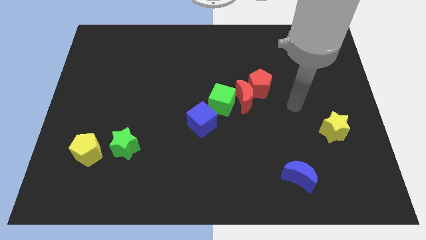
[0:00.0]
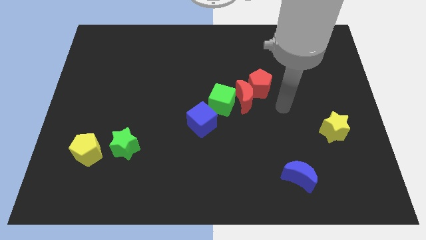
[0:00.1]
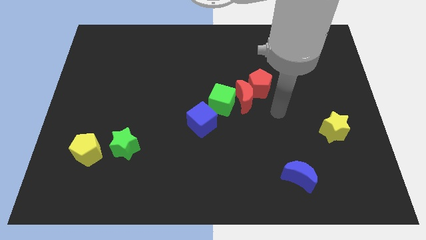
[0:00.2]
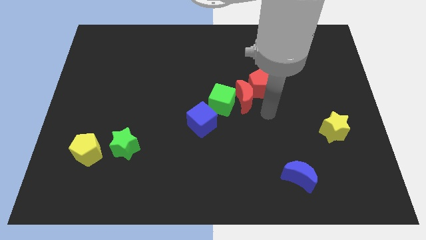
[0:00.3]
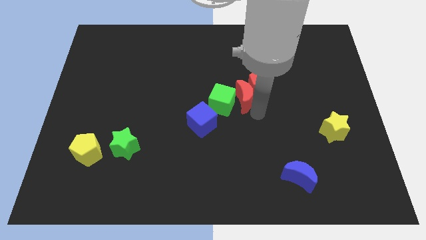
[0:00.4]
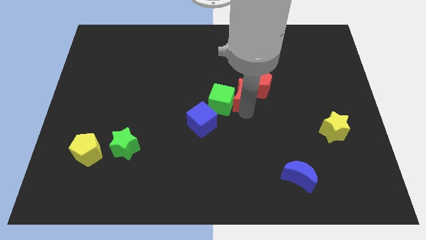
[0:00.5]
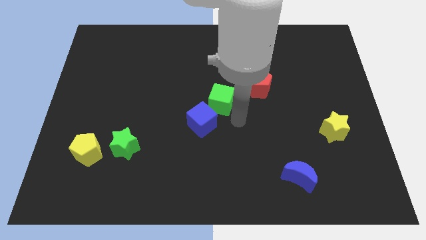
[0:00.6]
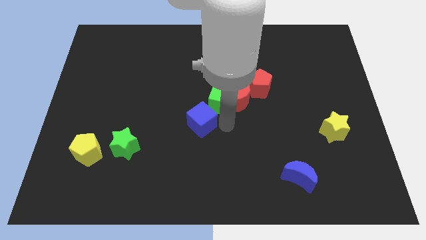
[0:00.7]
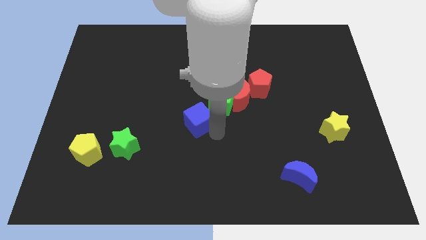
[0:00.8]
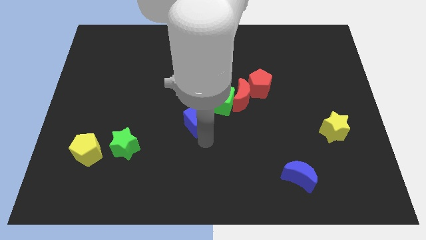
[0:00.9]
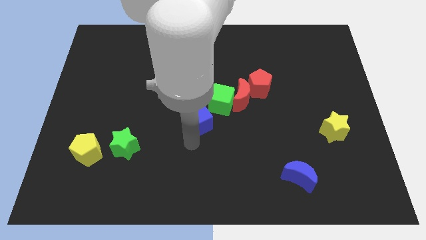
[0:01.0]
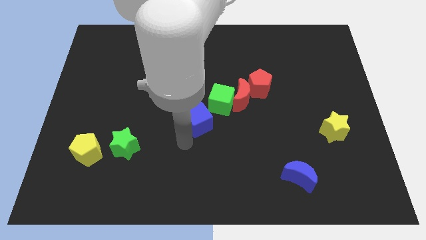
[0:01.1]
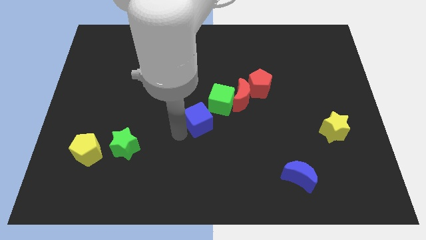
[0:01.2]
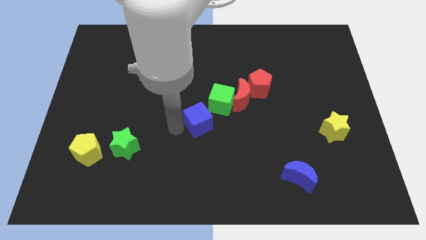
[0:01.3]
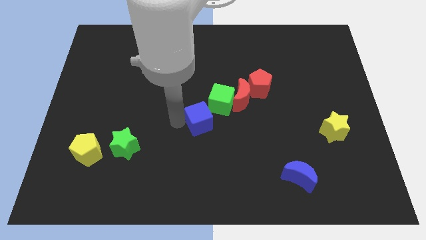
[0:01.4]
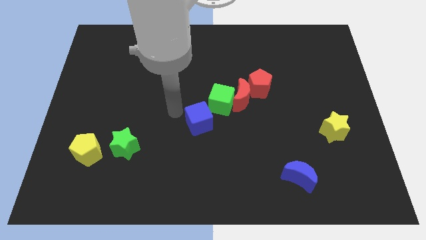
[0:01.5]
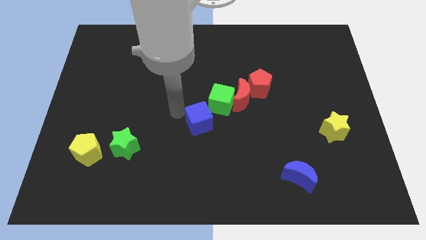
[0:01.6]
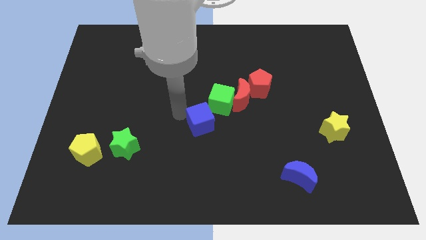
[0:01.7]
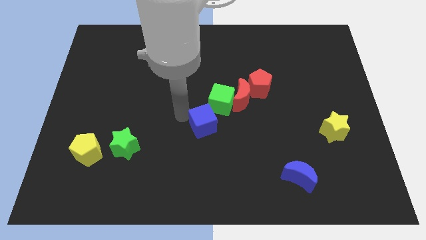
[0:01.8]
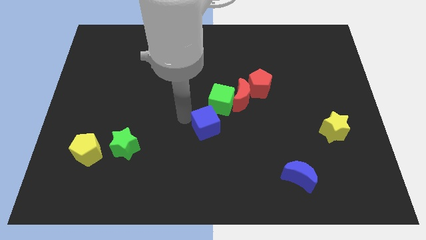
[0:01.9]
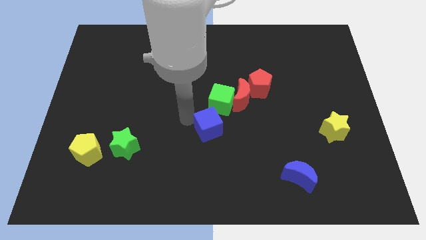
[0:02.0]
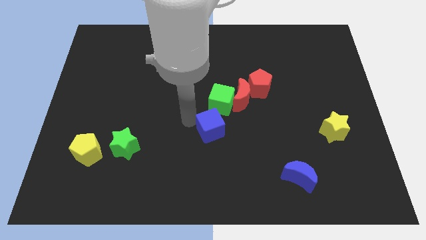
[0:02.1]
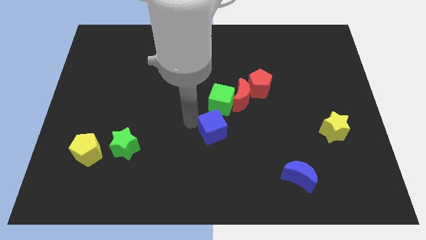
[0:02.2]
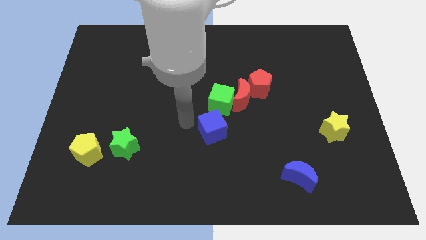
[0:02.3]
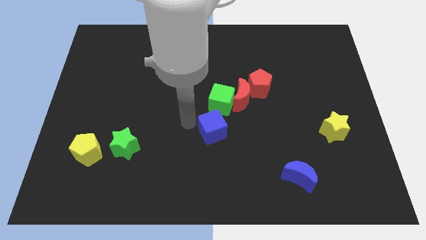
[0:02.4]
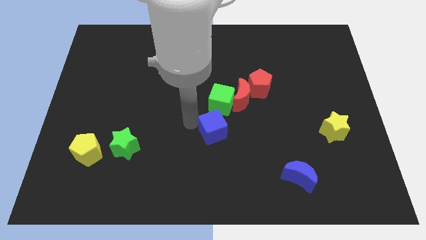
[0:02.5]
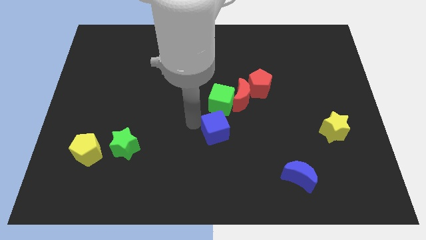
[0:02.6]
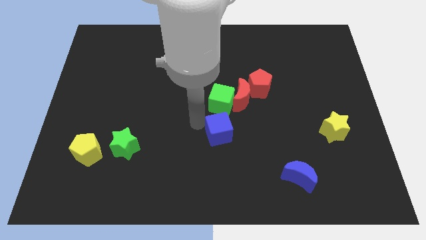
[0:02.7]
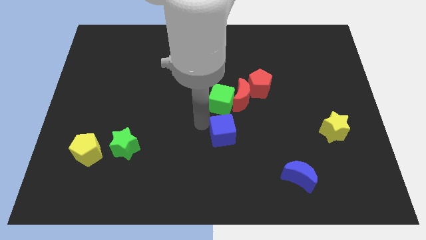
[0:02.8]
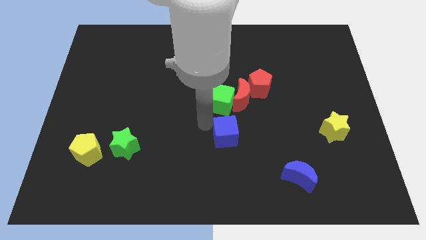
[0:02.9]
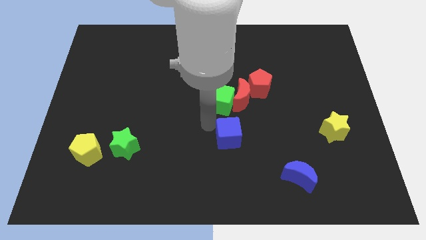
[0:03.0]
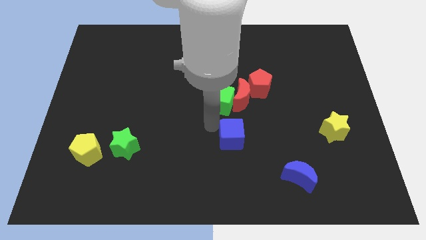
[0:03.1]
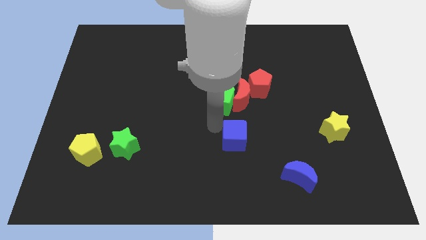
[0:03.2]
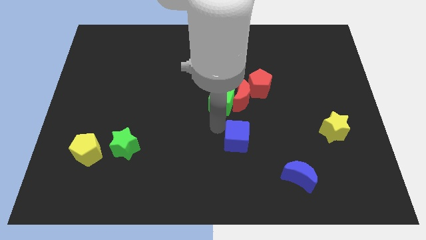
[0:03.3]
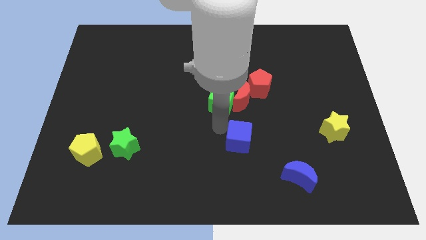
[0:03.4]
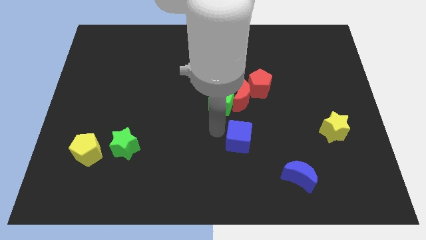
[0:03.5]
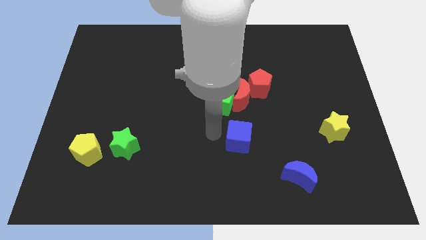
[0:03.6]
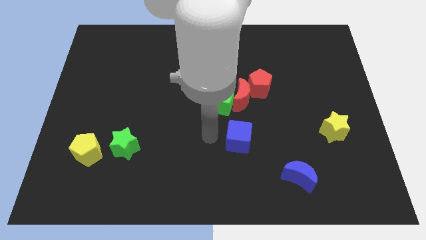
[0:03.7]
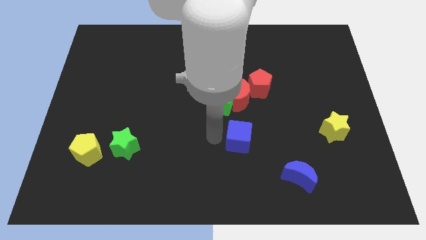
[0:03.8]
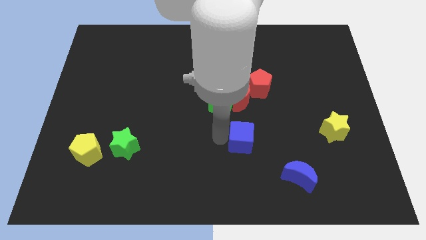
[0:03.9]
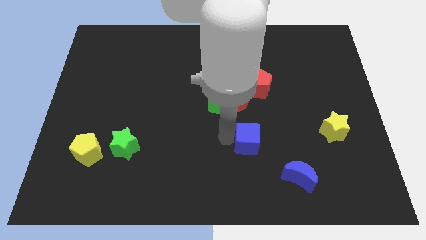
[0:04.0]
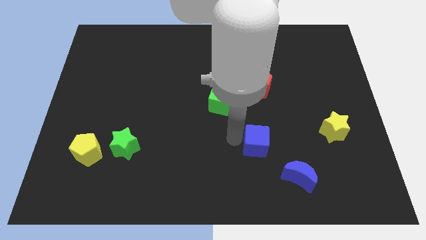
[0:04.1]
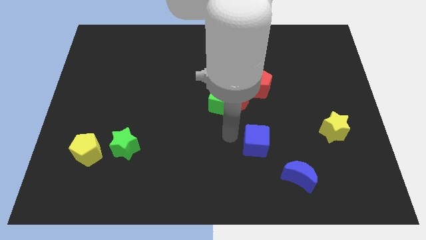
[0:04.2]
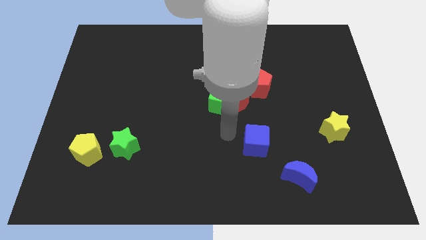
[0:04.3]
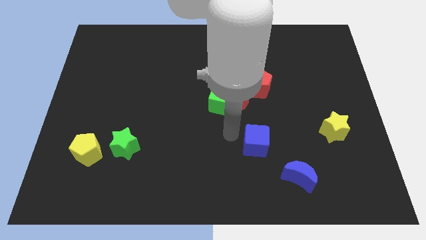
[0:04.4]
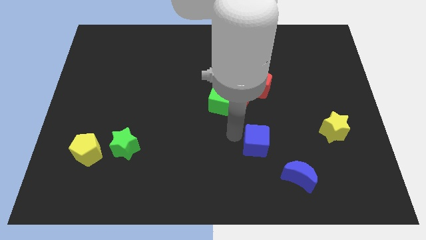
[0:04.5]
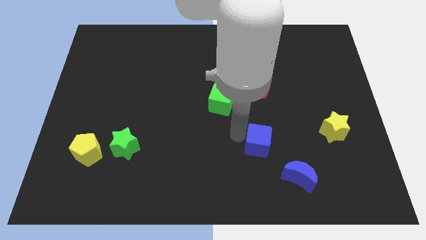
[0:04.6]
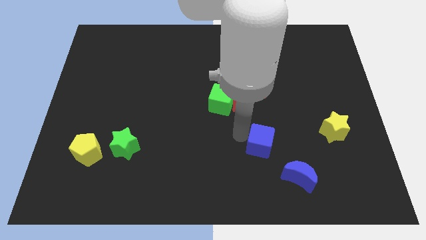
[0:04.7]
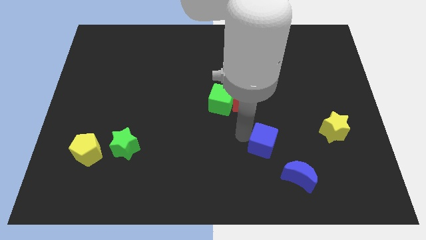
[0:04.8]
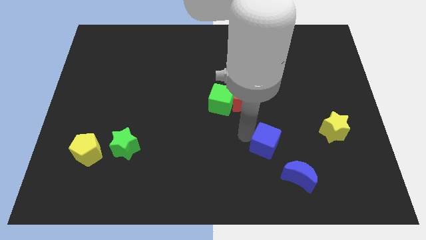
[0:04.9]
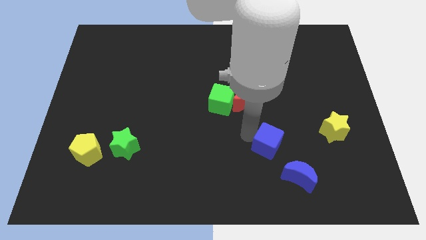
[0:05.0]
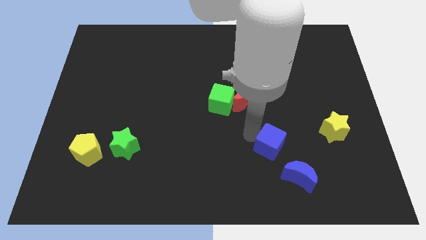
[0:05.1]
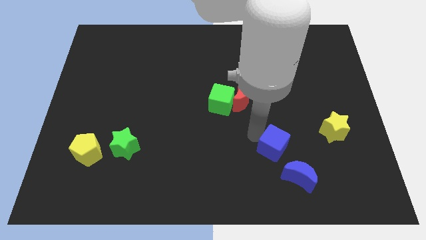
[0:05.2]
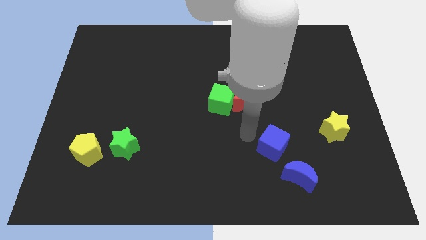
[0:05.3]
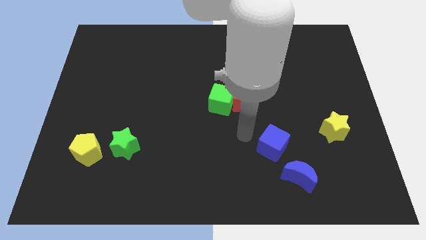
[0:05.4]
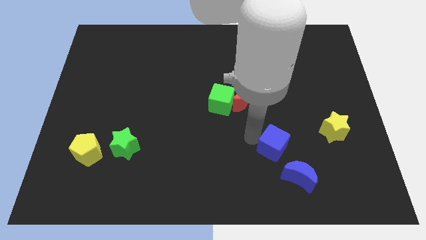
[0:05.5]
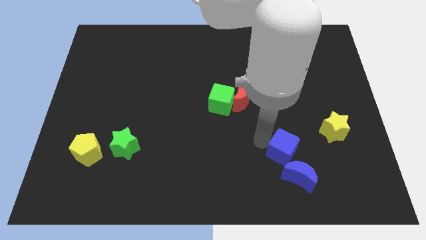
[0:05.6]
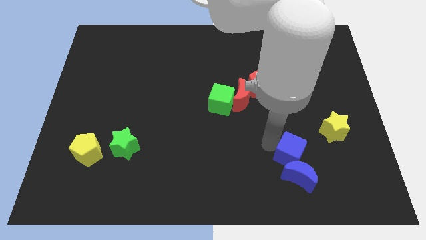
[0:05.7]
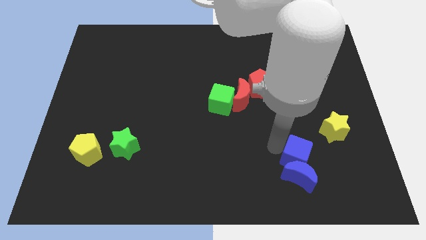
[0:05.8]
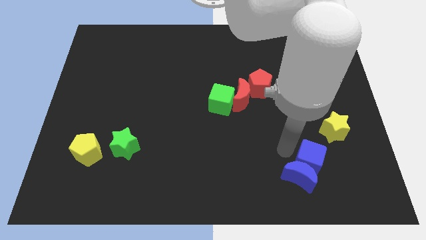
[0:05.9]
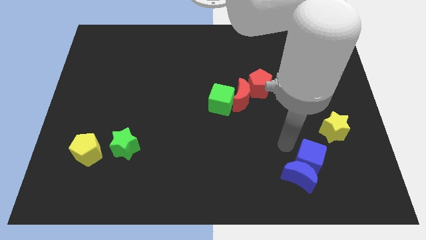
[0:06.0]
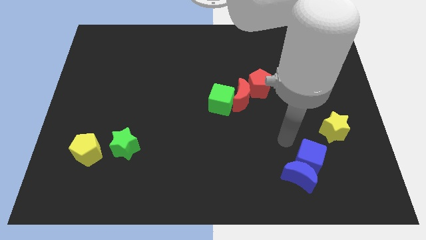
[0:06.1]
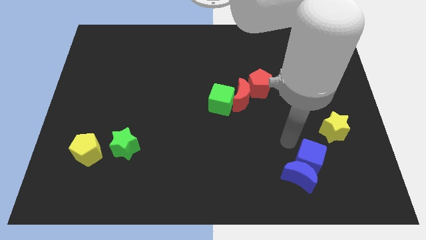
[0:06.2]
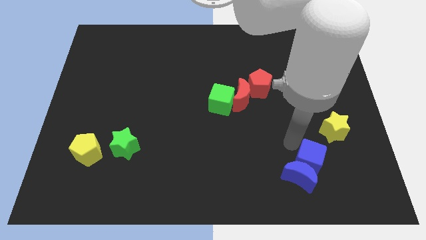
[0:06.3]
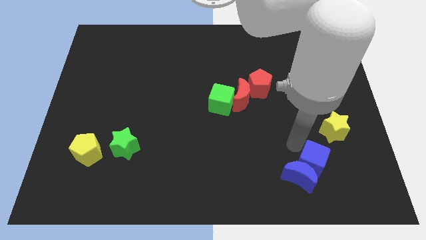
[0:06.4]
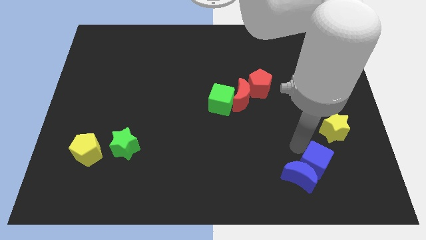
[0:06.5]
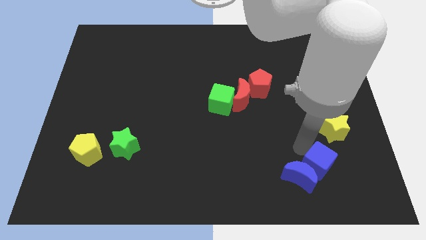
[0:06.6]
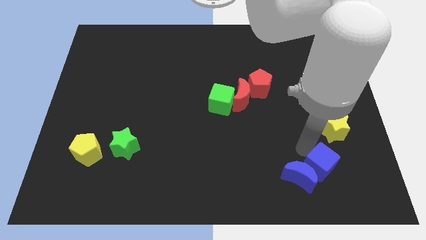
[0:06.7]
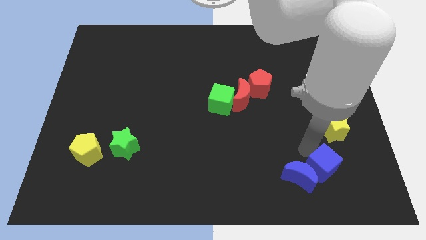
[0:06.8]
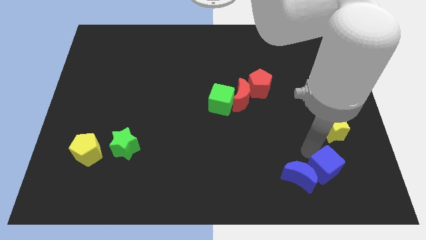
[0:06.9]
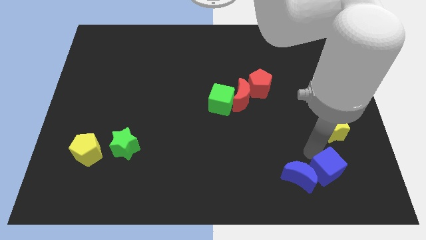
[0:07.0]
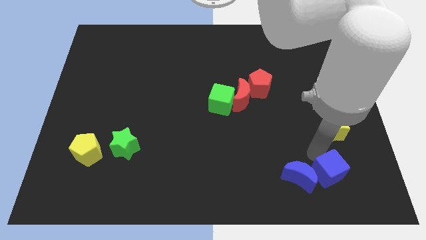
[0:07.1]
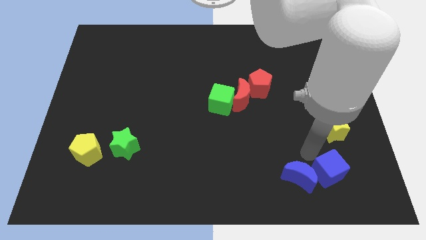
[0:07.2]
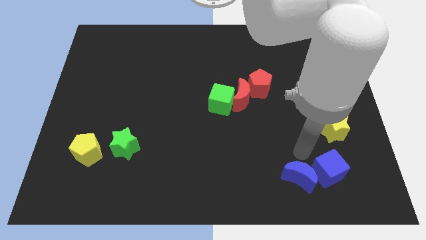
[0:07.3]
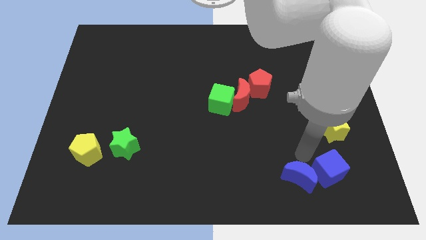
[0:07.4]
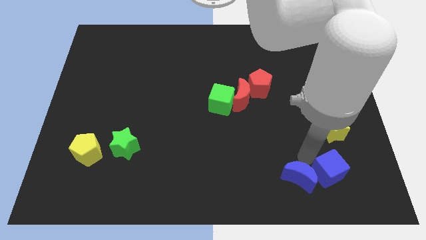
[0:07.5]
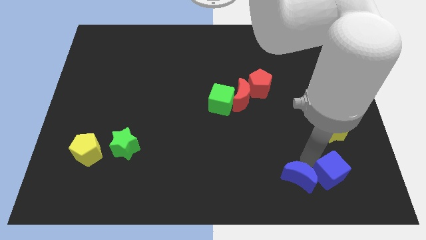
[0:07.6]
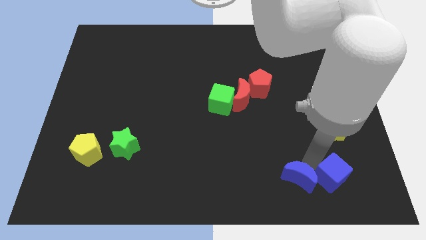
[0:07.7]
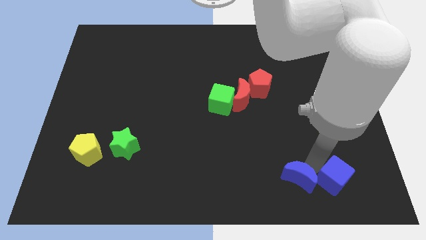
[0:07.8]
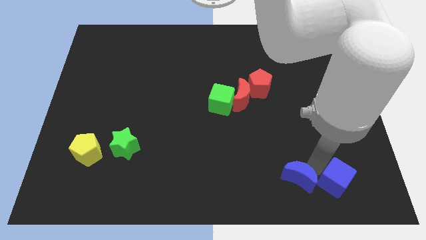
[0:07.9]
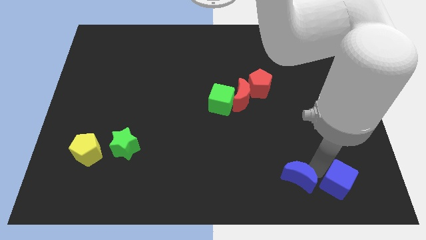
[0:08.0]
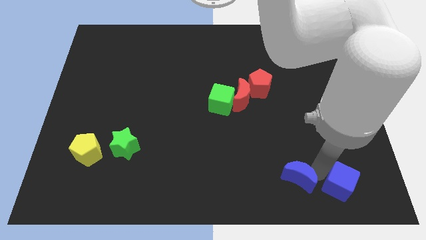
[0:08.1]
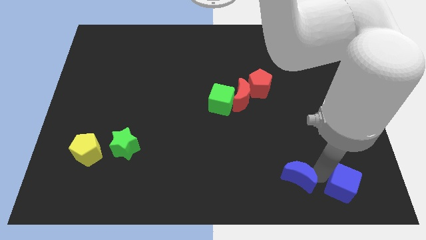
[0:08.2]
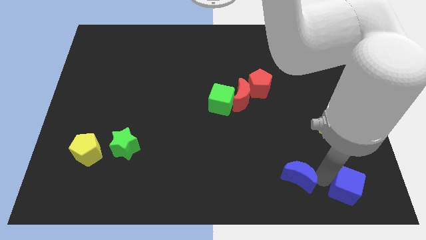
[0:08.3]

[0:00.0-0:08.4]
put the blue cube to the bottom right
